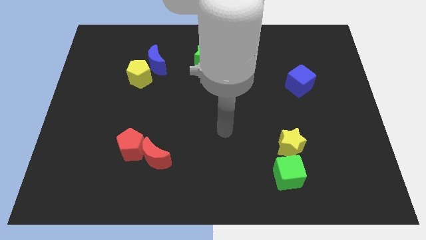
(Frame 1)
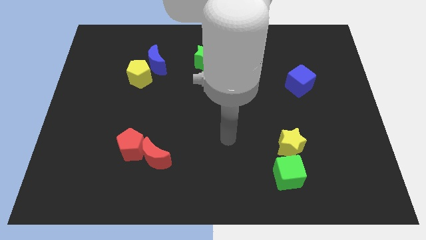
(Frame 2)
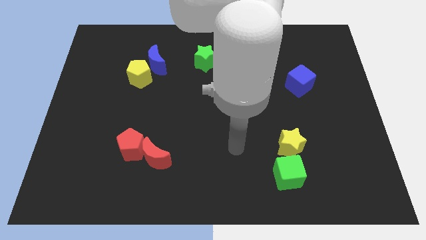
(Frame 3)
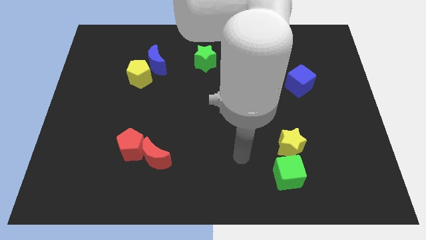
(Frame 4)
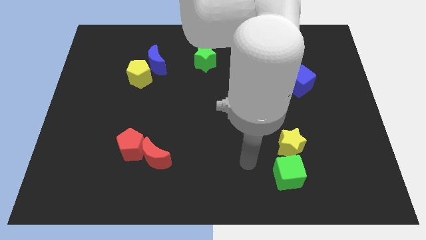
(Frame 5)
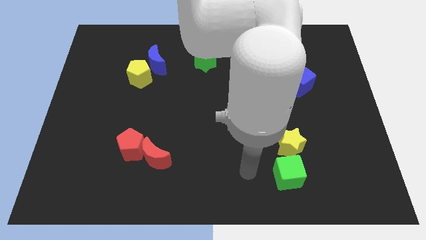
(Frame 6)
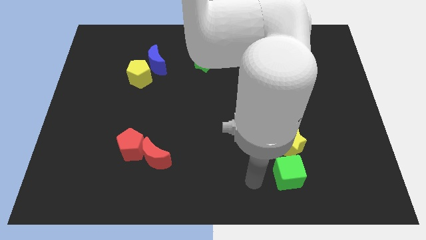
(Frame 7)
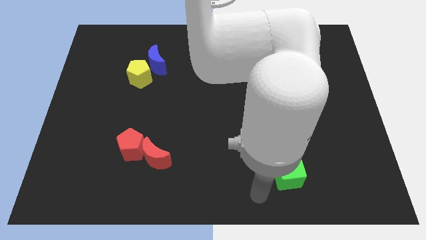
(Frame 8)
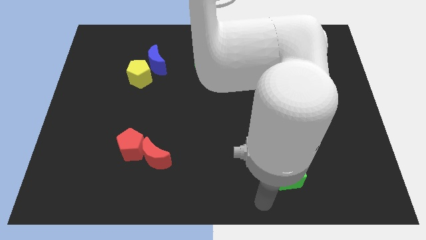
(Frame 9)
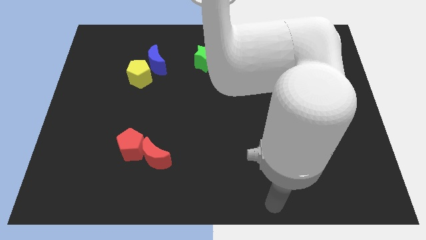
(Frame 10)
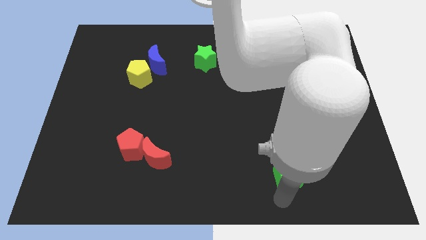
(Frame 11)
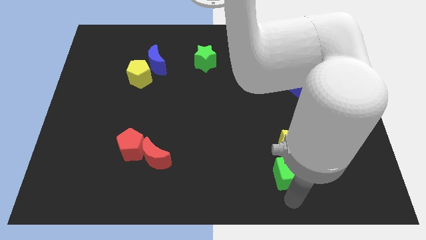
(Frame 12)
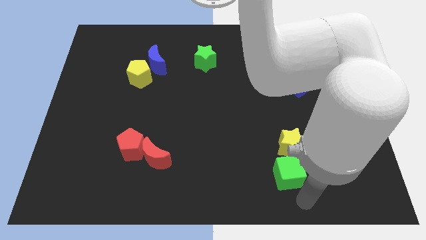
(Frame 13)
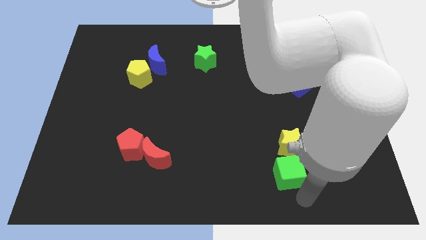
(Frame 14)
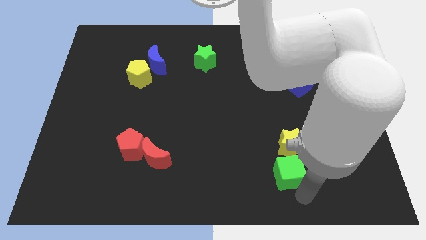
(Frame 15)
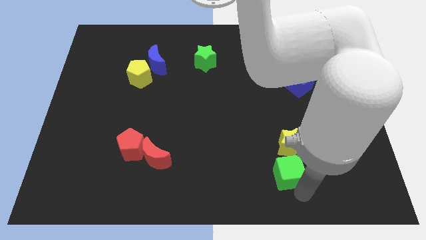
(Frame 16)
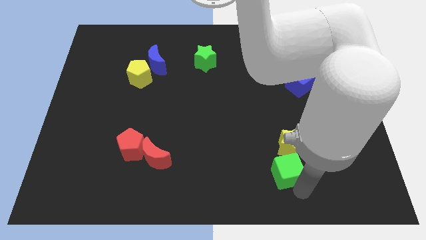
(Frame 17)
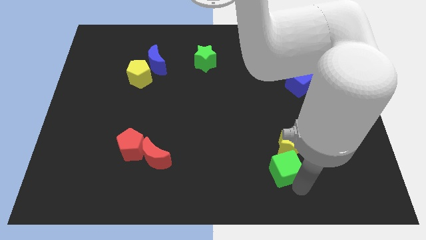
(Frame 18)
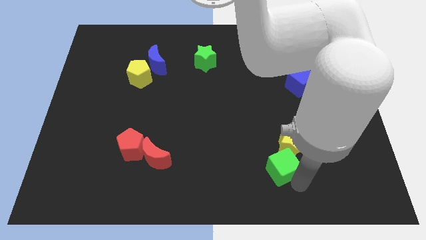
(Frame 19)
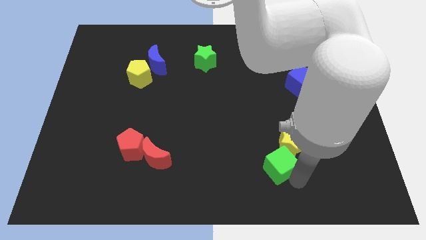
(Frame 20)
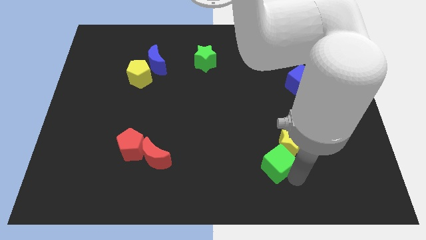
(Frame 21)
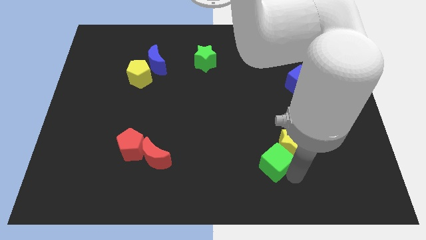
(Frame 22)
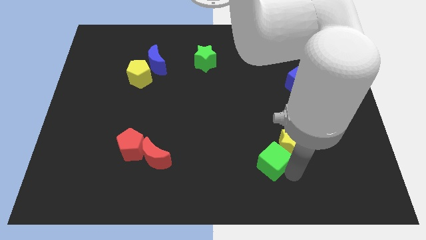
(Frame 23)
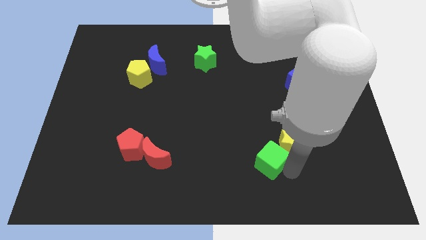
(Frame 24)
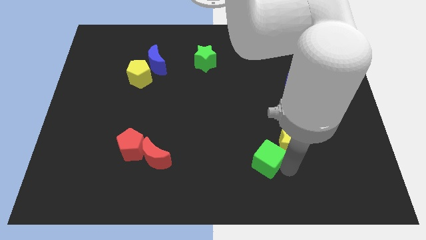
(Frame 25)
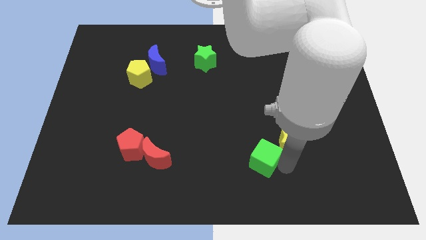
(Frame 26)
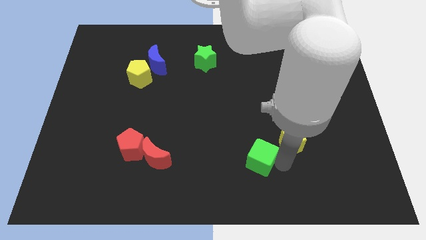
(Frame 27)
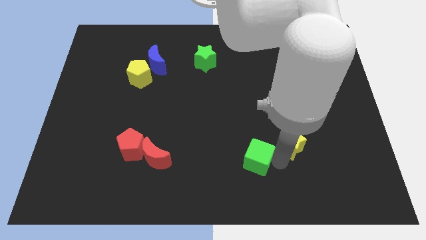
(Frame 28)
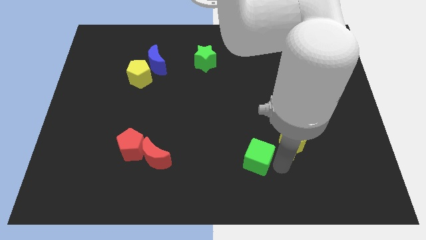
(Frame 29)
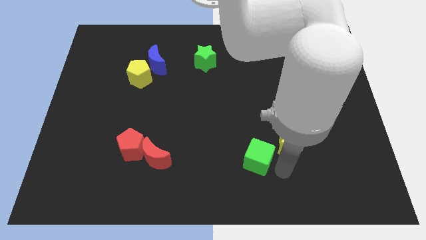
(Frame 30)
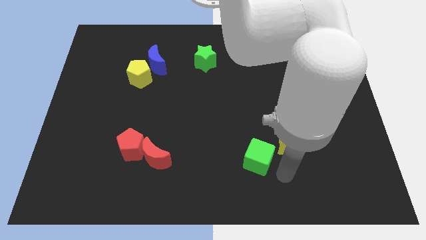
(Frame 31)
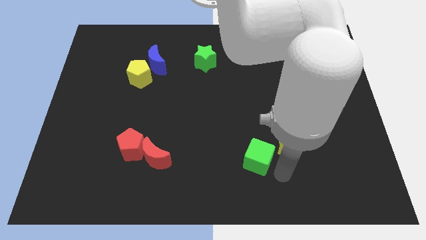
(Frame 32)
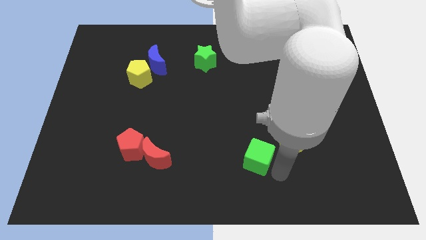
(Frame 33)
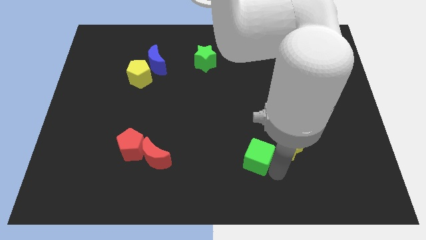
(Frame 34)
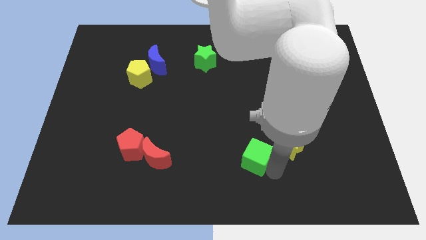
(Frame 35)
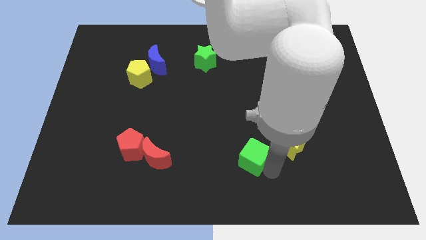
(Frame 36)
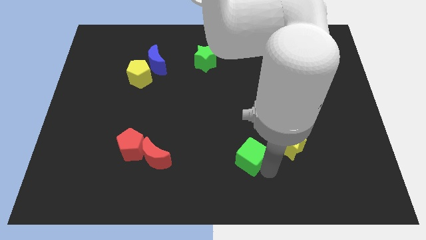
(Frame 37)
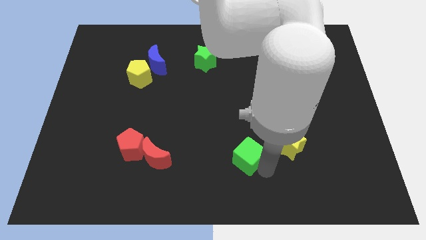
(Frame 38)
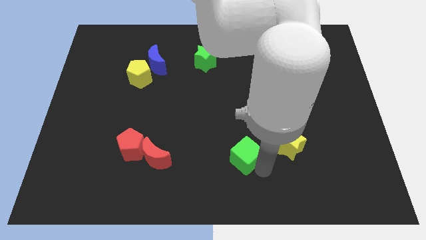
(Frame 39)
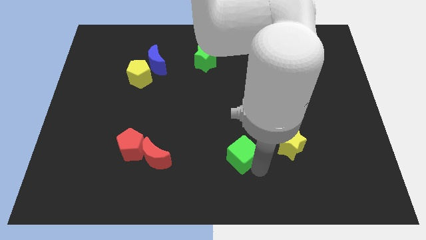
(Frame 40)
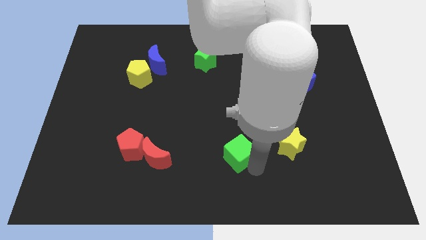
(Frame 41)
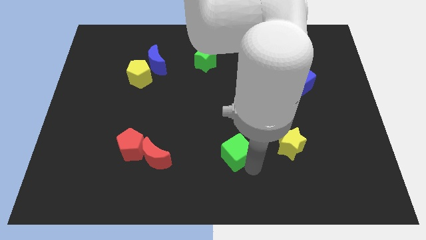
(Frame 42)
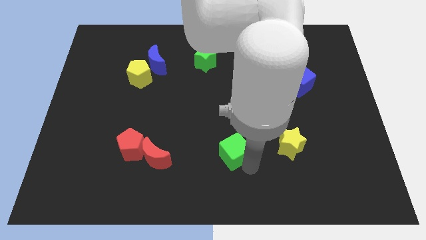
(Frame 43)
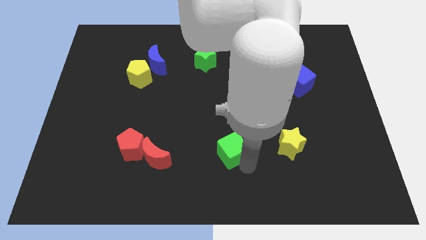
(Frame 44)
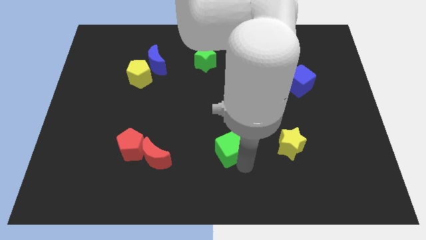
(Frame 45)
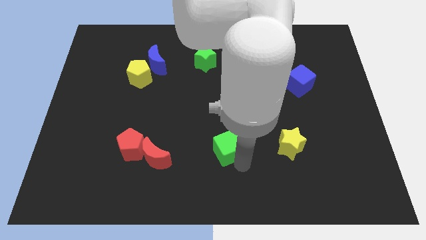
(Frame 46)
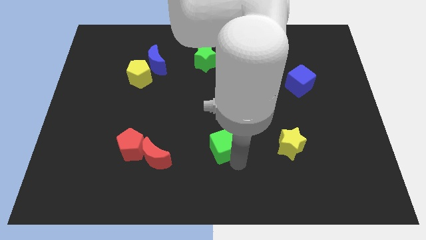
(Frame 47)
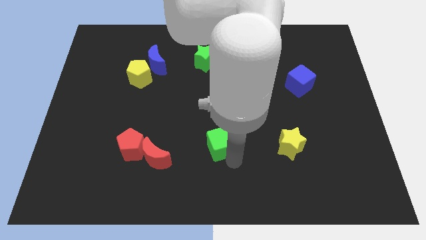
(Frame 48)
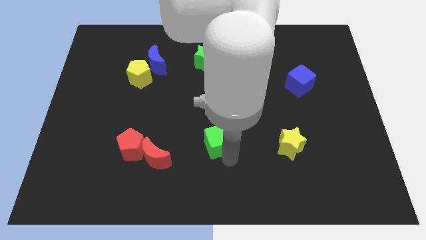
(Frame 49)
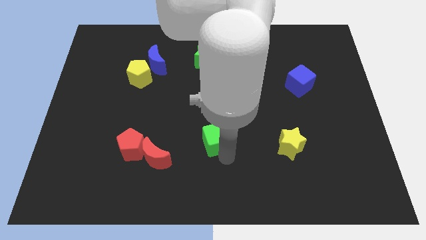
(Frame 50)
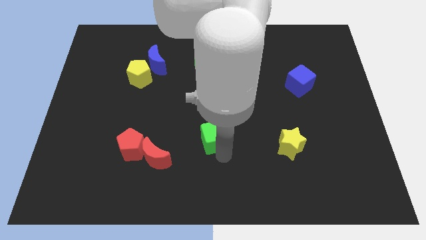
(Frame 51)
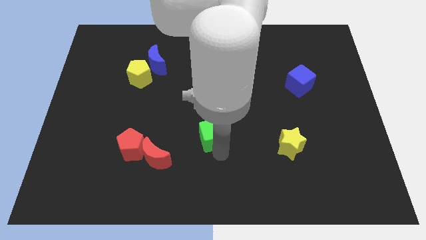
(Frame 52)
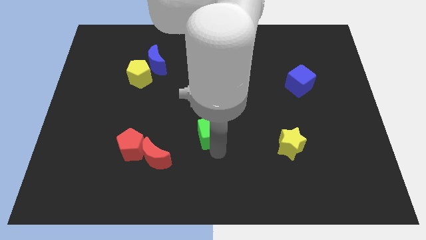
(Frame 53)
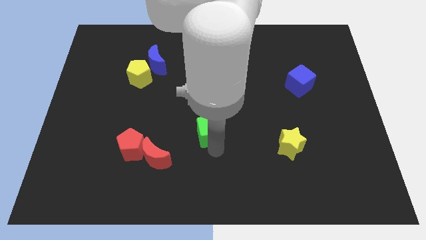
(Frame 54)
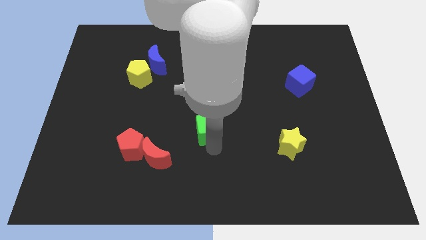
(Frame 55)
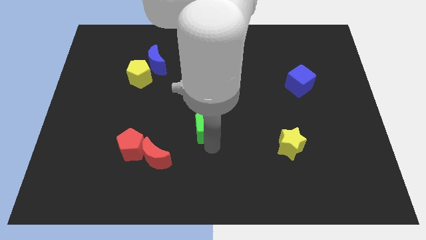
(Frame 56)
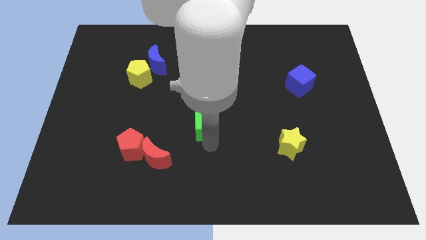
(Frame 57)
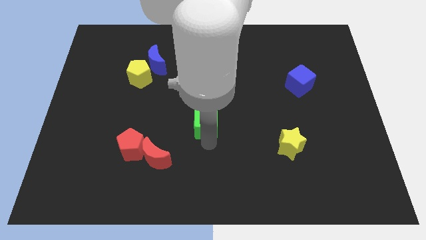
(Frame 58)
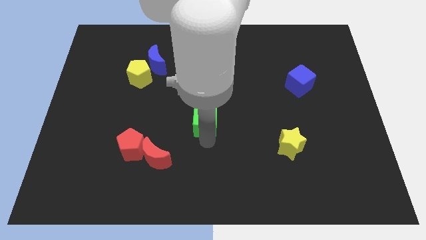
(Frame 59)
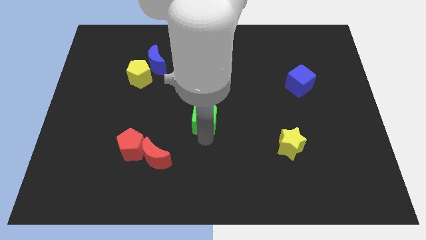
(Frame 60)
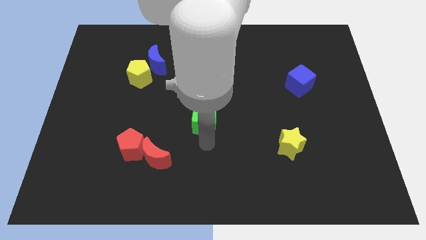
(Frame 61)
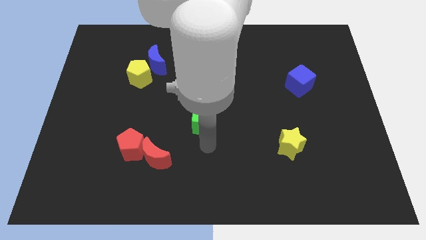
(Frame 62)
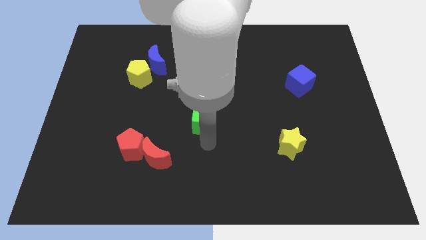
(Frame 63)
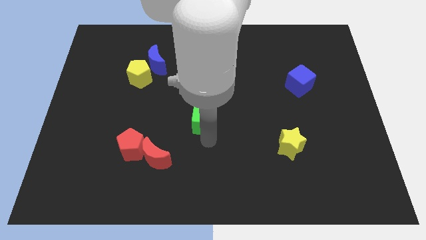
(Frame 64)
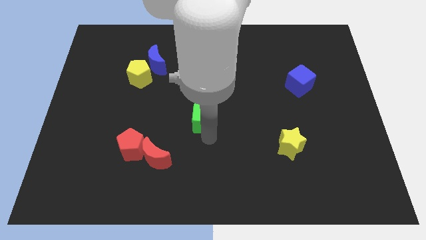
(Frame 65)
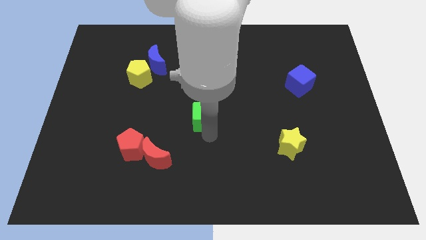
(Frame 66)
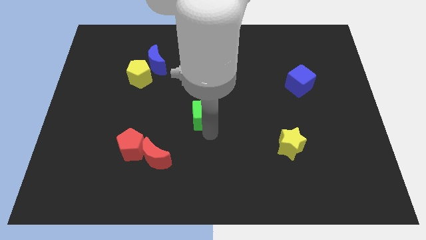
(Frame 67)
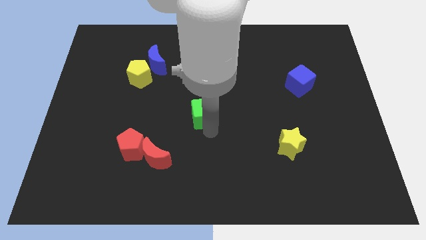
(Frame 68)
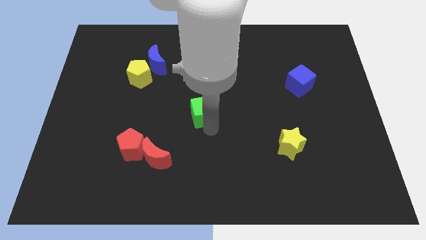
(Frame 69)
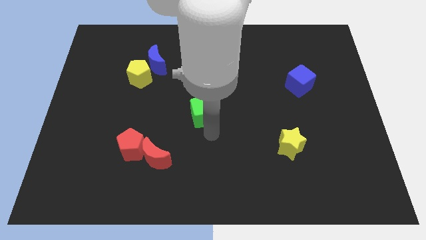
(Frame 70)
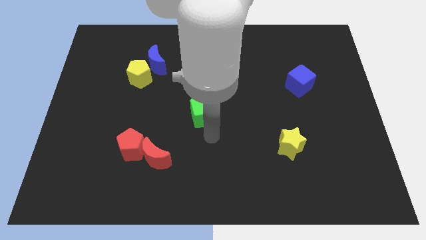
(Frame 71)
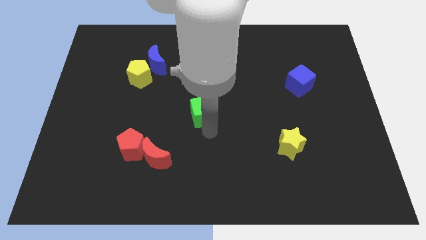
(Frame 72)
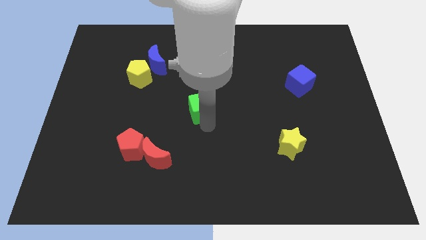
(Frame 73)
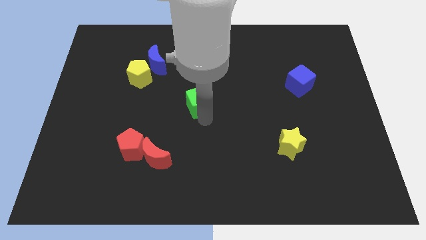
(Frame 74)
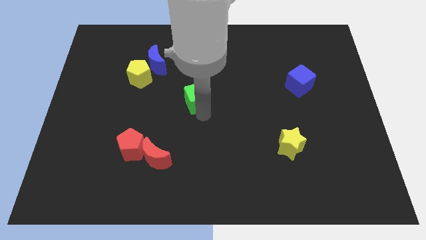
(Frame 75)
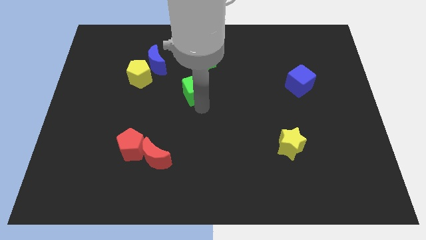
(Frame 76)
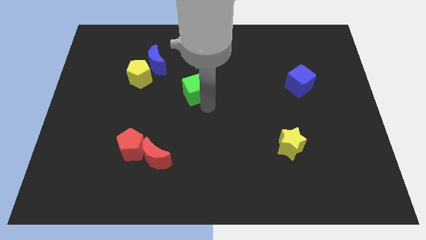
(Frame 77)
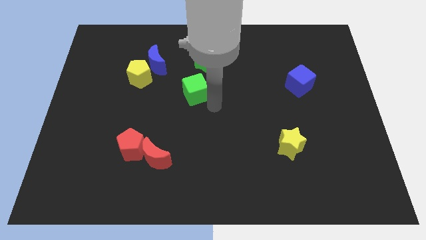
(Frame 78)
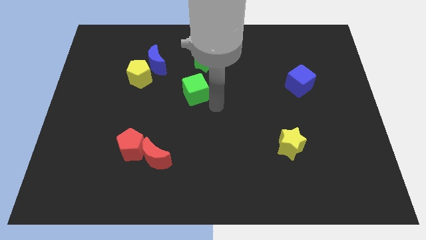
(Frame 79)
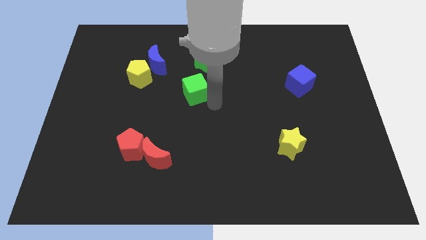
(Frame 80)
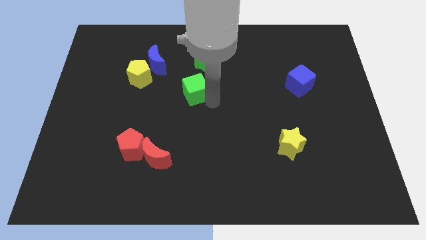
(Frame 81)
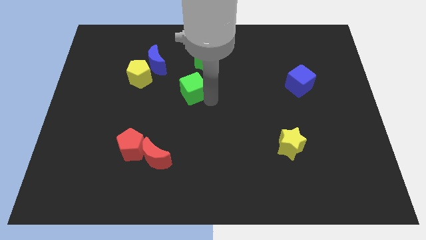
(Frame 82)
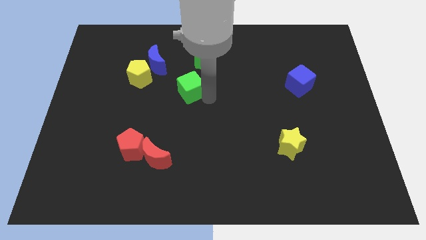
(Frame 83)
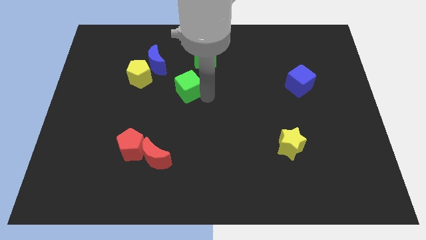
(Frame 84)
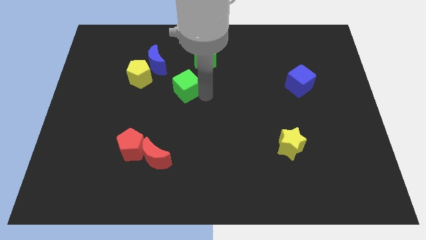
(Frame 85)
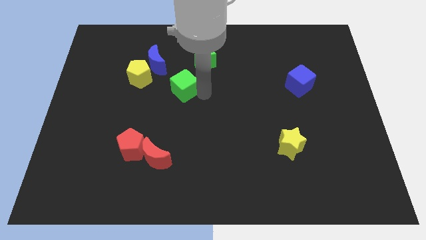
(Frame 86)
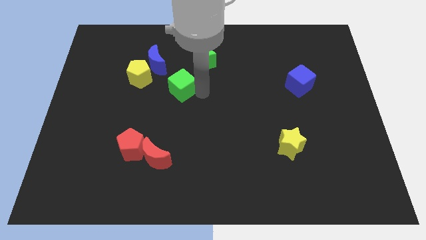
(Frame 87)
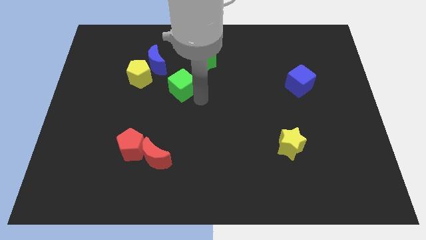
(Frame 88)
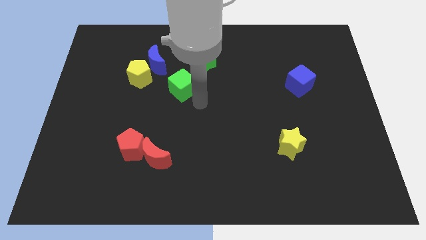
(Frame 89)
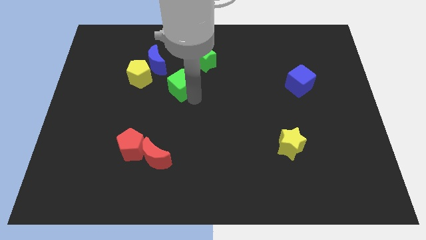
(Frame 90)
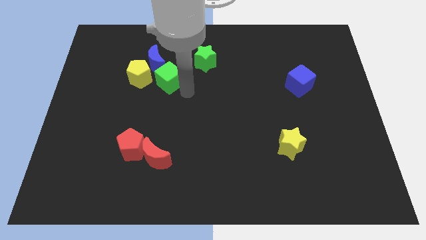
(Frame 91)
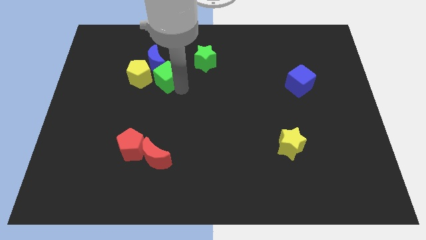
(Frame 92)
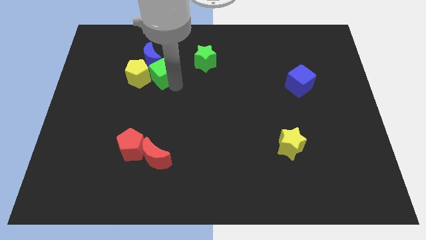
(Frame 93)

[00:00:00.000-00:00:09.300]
move the green cube close to the blue moon
